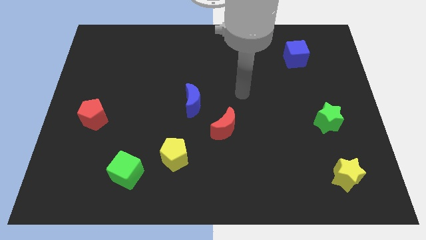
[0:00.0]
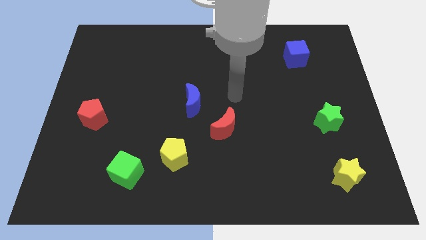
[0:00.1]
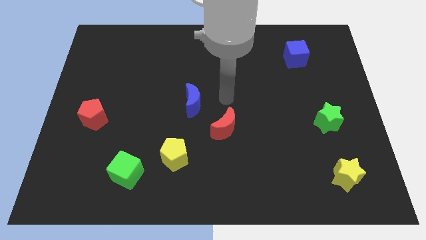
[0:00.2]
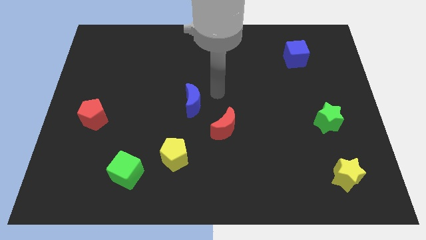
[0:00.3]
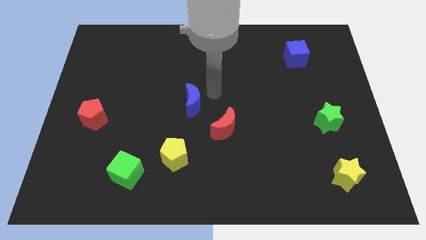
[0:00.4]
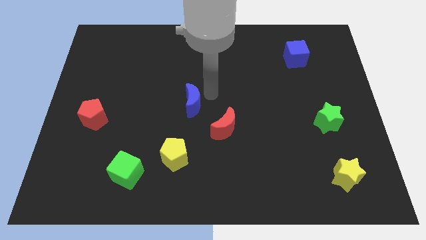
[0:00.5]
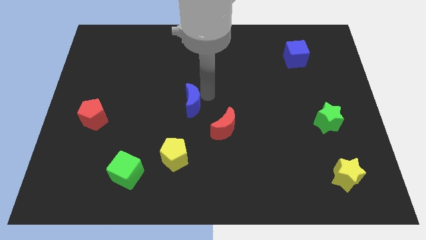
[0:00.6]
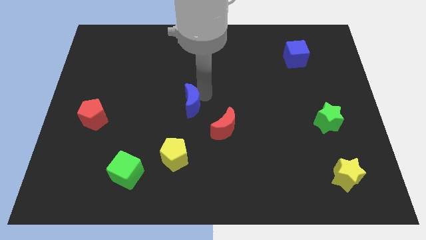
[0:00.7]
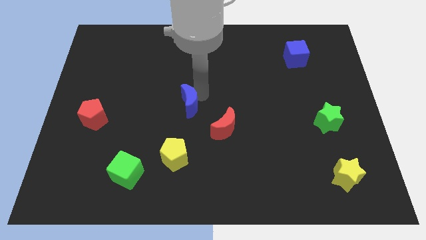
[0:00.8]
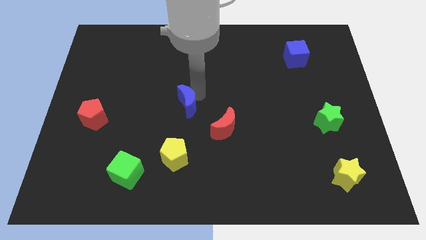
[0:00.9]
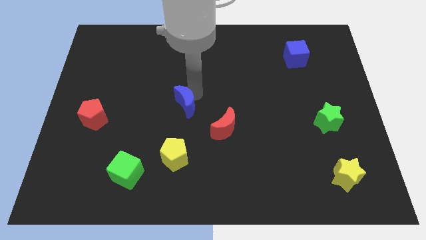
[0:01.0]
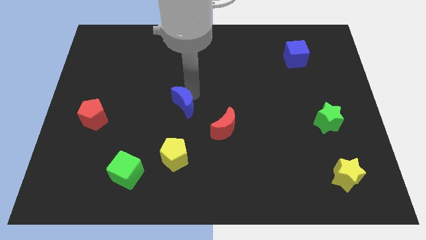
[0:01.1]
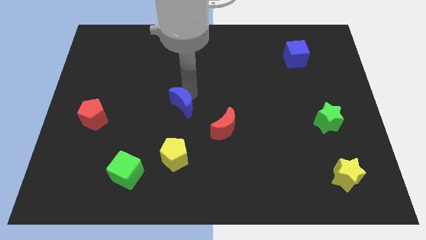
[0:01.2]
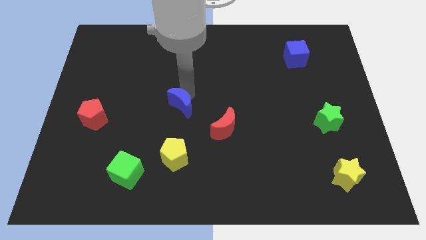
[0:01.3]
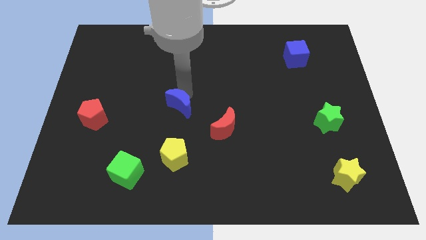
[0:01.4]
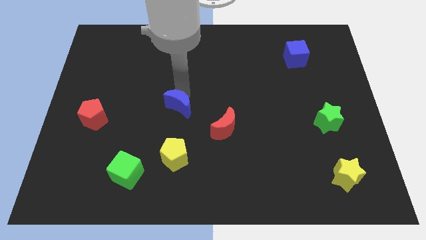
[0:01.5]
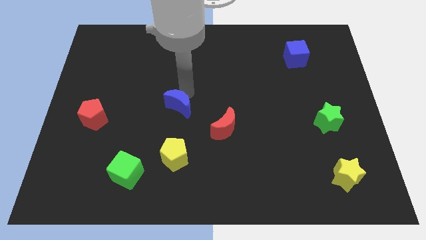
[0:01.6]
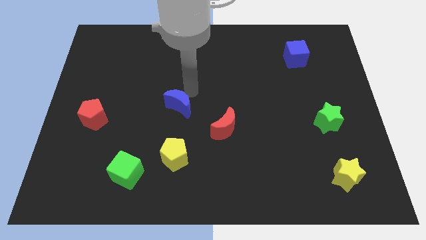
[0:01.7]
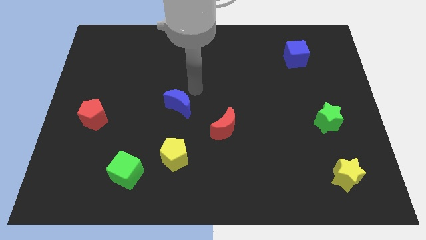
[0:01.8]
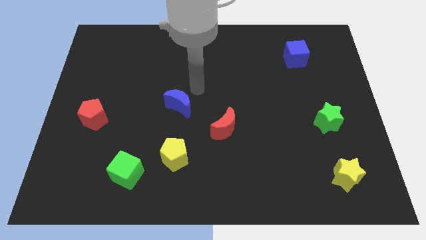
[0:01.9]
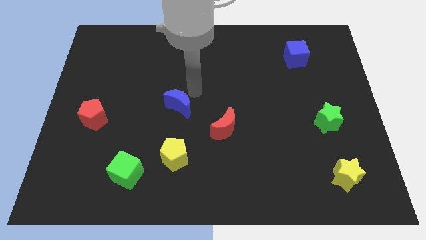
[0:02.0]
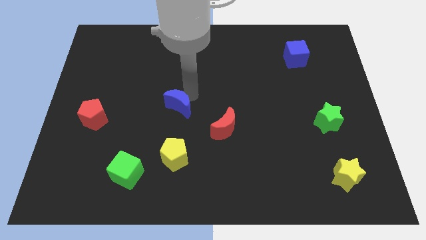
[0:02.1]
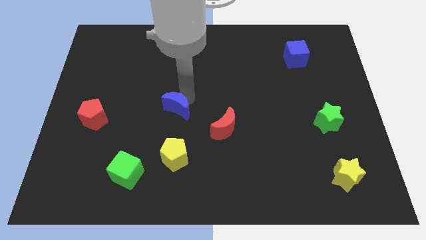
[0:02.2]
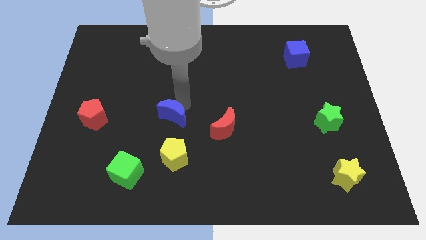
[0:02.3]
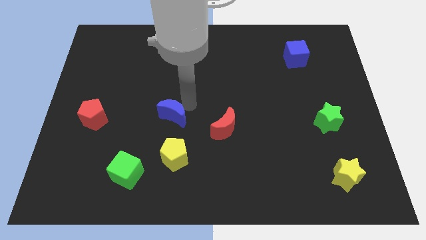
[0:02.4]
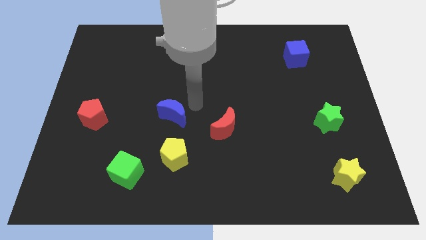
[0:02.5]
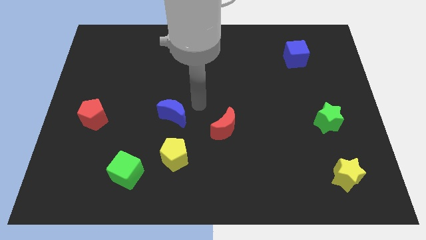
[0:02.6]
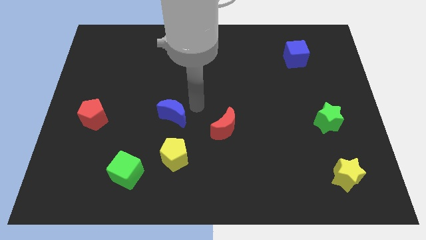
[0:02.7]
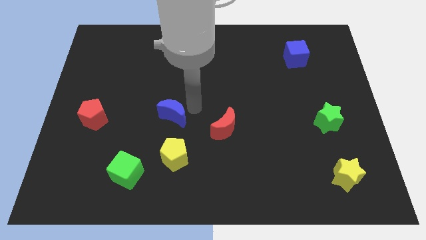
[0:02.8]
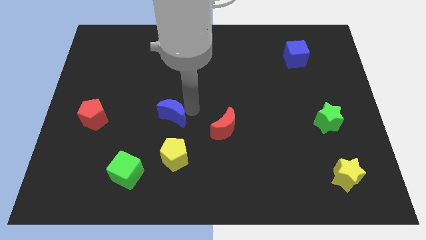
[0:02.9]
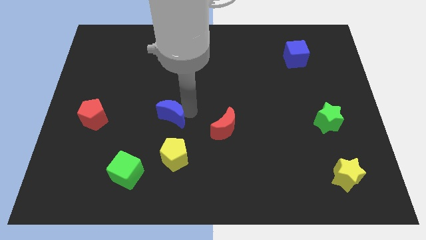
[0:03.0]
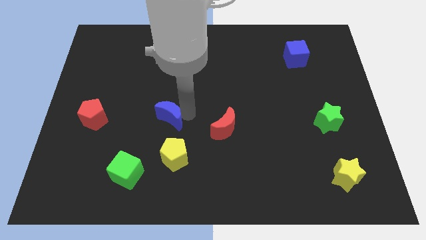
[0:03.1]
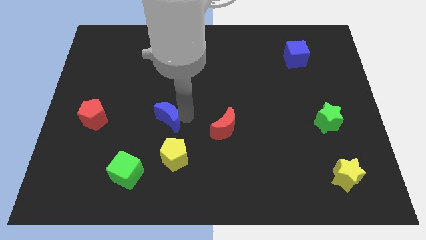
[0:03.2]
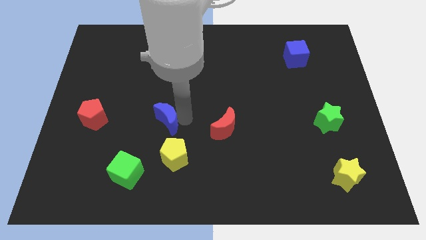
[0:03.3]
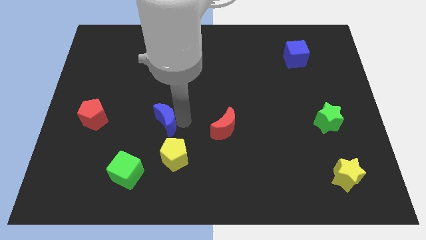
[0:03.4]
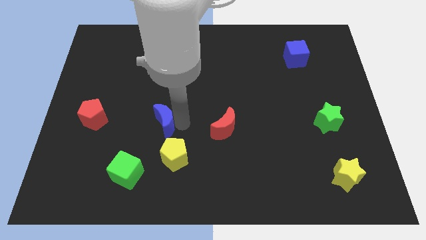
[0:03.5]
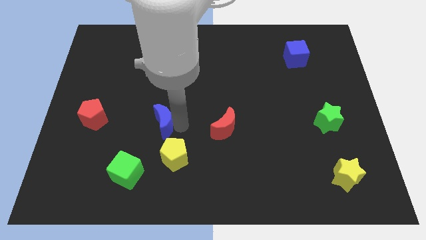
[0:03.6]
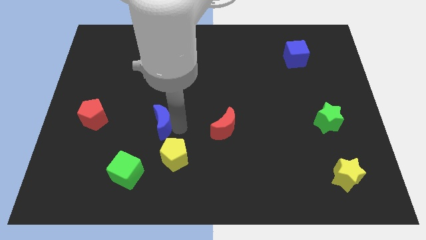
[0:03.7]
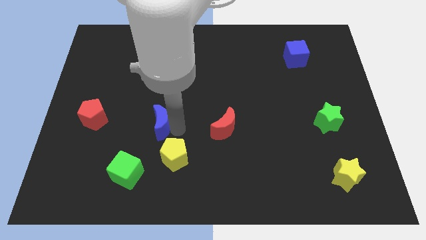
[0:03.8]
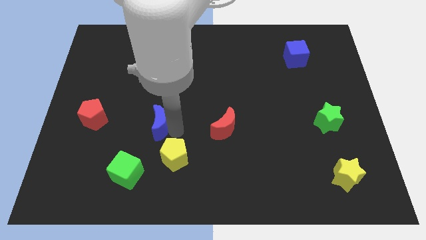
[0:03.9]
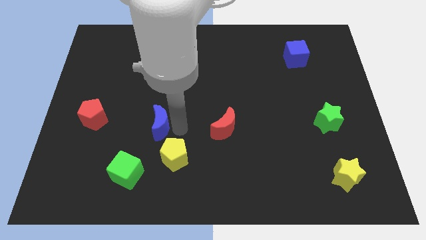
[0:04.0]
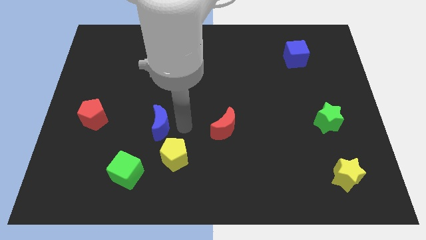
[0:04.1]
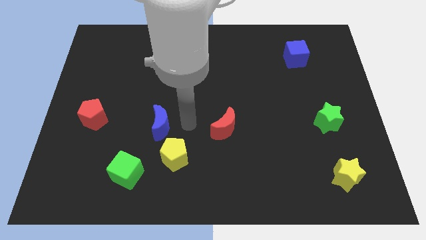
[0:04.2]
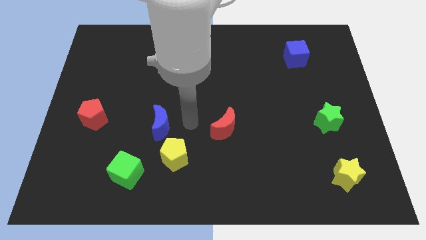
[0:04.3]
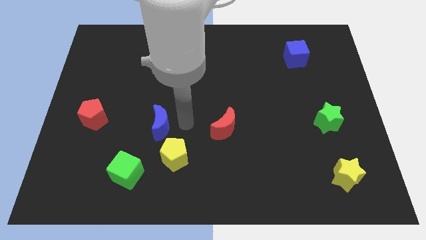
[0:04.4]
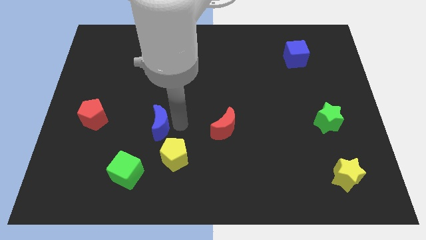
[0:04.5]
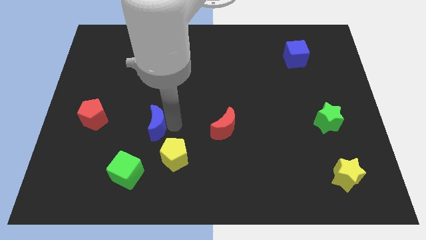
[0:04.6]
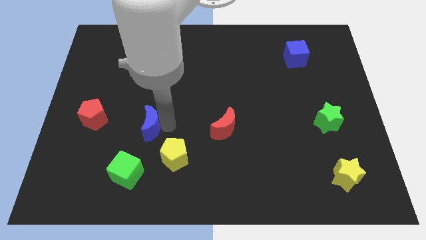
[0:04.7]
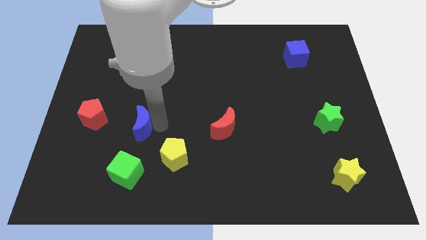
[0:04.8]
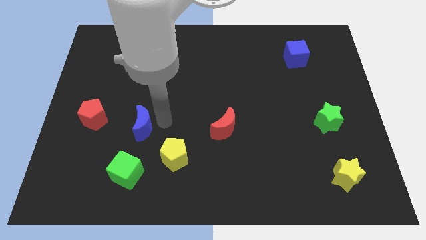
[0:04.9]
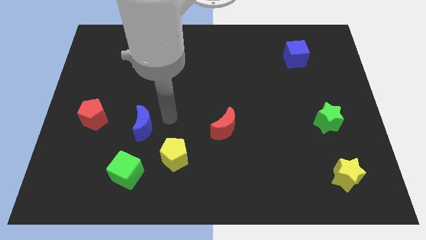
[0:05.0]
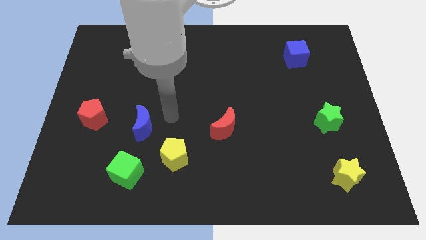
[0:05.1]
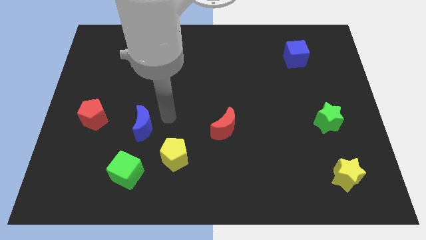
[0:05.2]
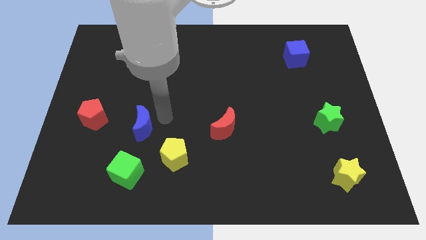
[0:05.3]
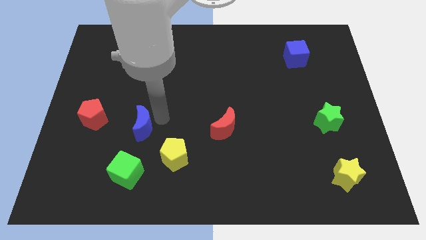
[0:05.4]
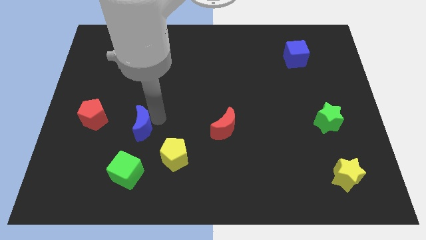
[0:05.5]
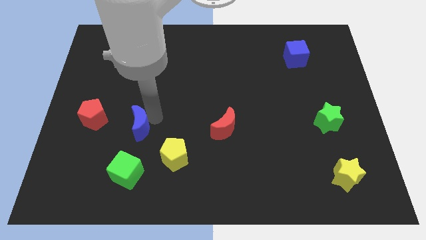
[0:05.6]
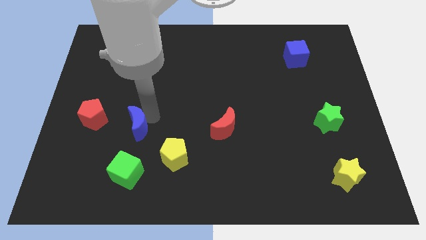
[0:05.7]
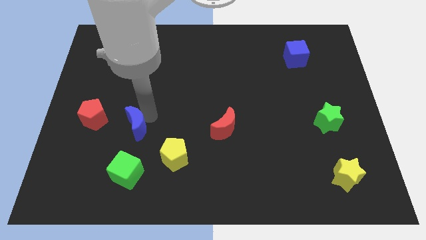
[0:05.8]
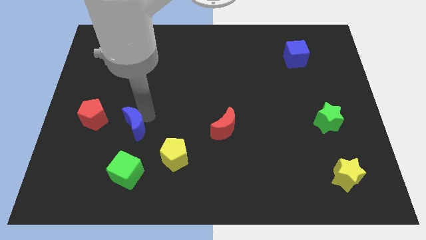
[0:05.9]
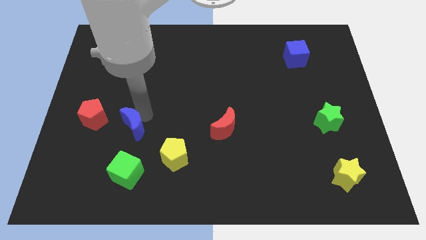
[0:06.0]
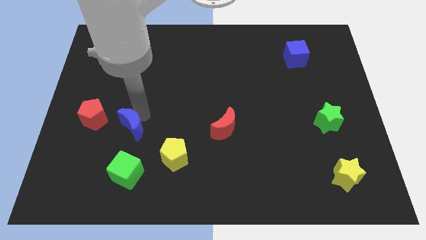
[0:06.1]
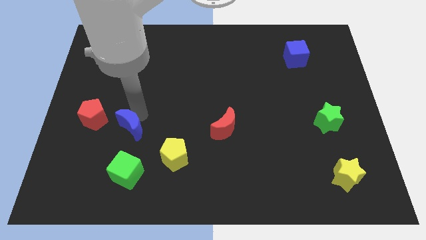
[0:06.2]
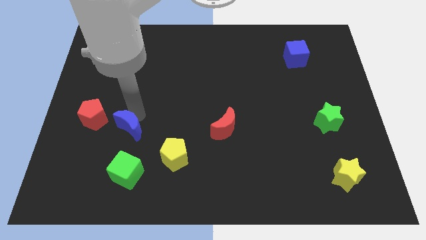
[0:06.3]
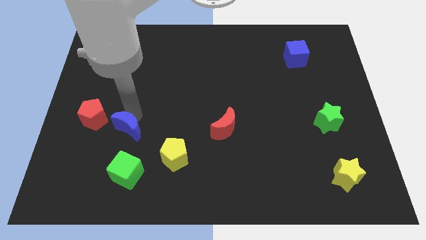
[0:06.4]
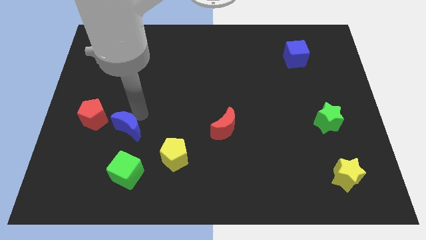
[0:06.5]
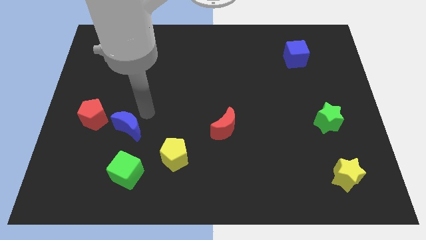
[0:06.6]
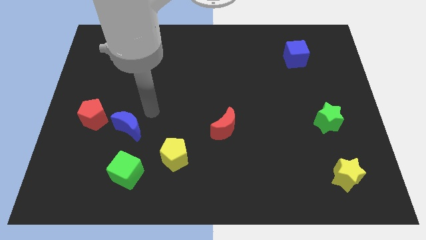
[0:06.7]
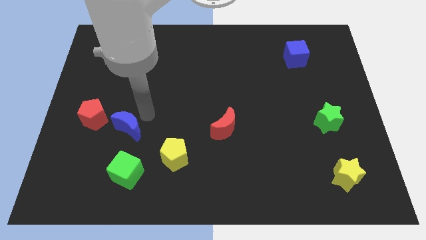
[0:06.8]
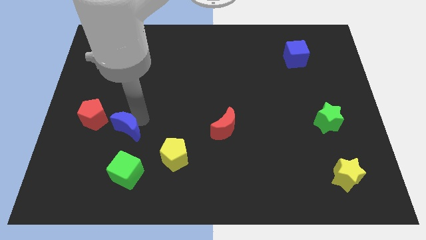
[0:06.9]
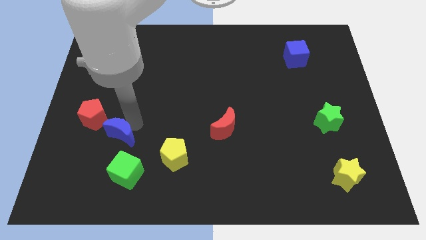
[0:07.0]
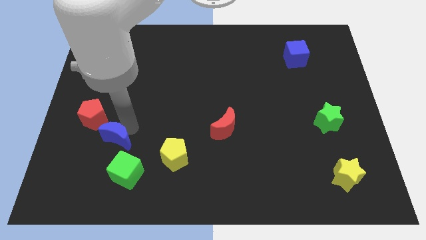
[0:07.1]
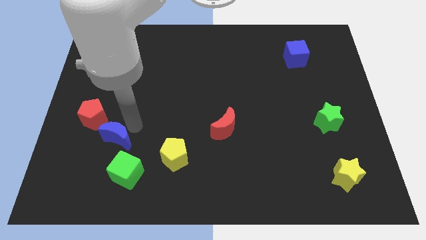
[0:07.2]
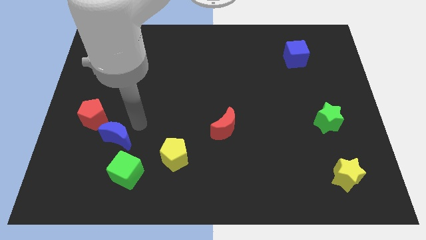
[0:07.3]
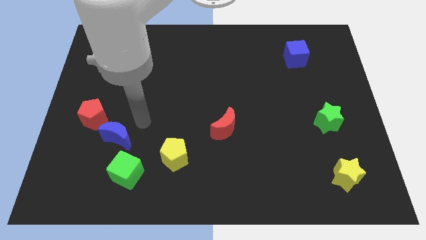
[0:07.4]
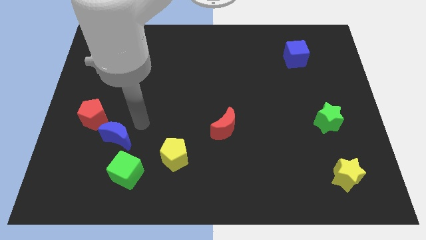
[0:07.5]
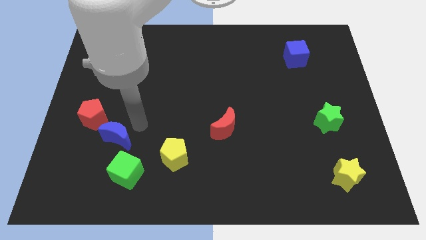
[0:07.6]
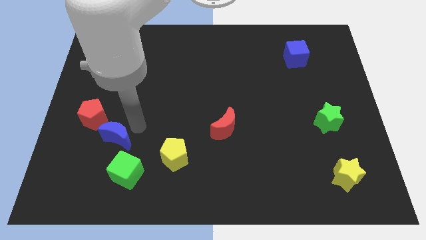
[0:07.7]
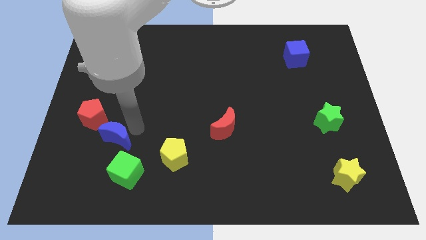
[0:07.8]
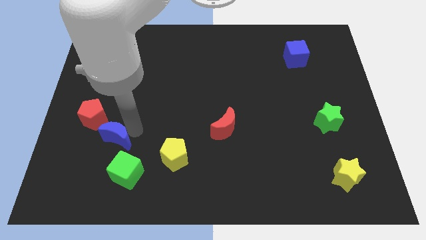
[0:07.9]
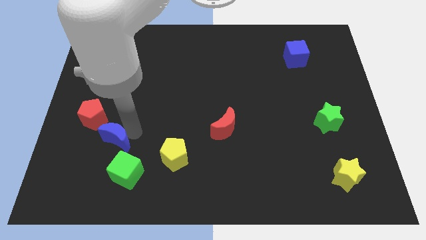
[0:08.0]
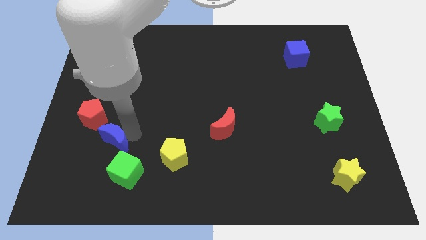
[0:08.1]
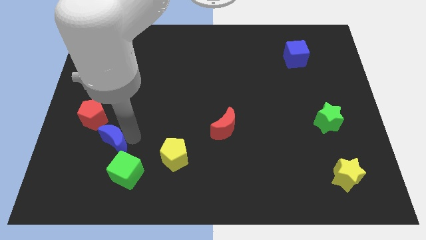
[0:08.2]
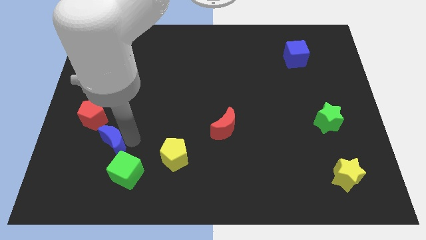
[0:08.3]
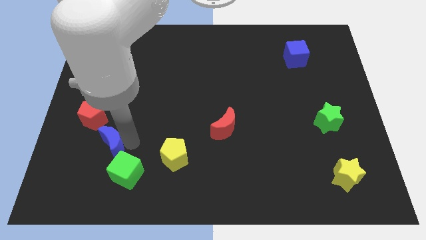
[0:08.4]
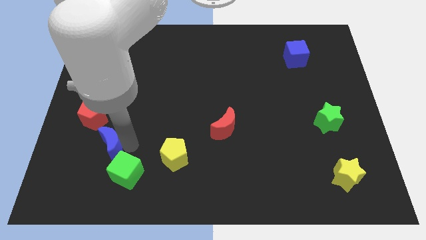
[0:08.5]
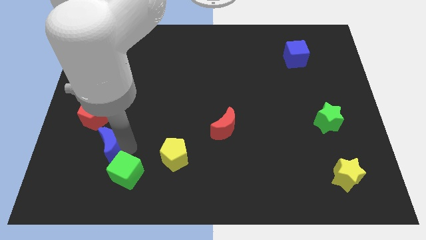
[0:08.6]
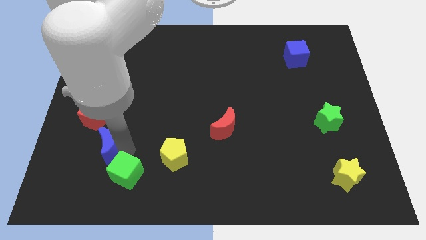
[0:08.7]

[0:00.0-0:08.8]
push the blue moon below the red pentagon
